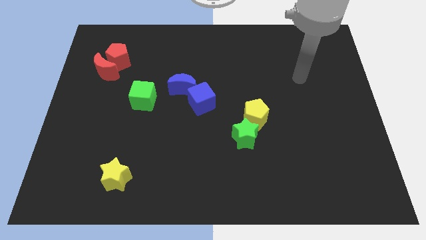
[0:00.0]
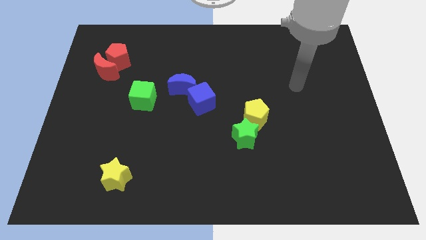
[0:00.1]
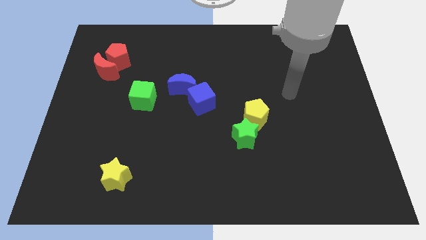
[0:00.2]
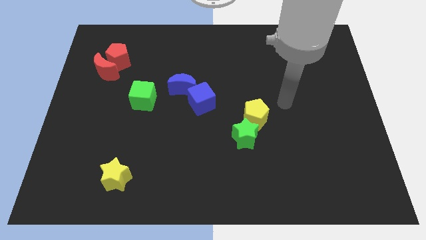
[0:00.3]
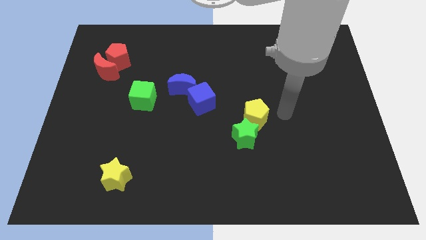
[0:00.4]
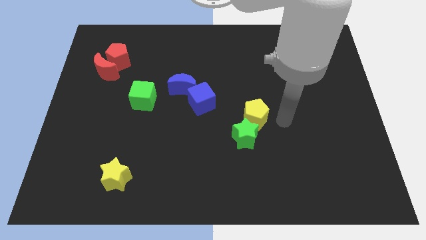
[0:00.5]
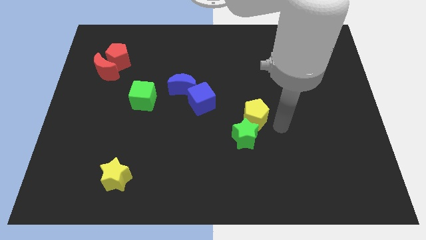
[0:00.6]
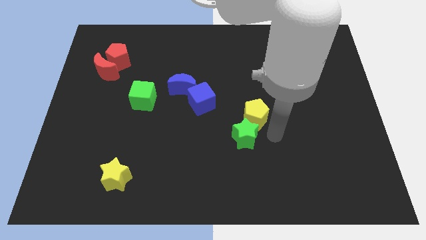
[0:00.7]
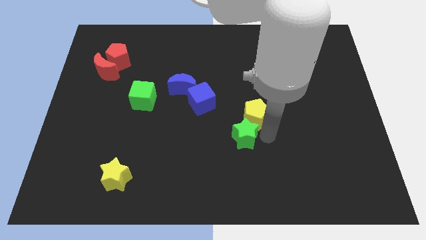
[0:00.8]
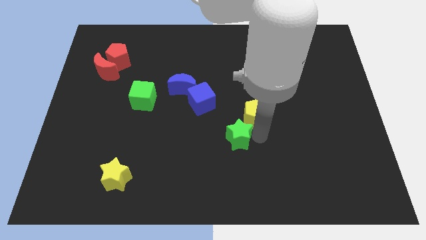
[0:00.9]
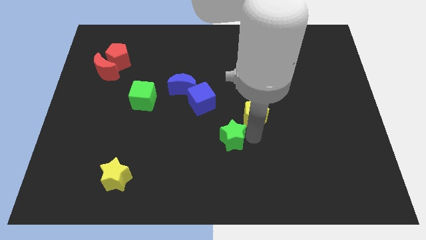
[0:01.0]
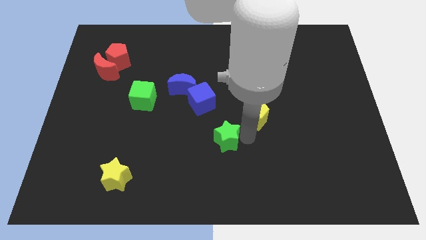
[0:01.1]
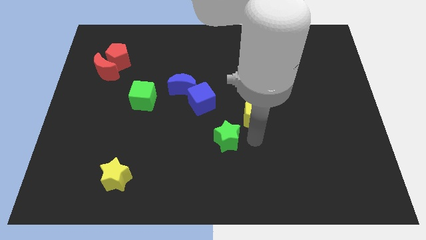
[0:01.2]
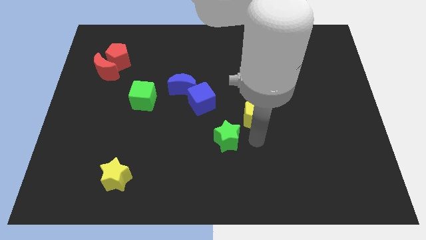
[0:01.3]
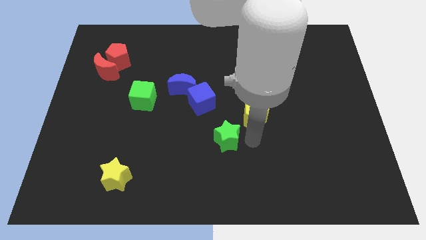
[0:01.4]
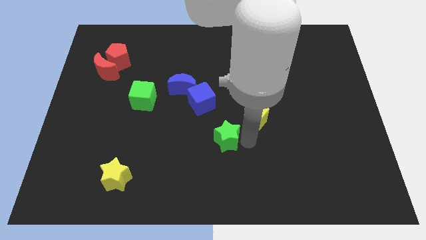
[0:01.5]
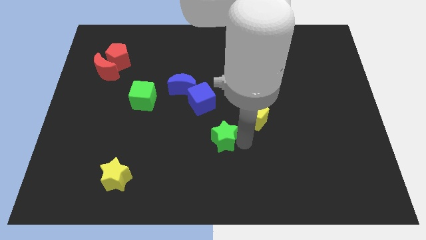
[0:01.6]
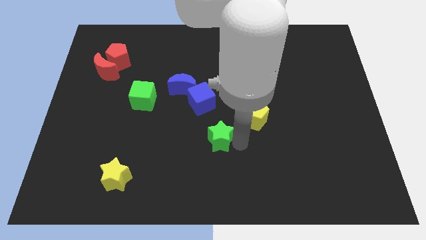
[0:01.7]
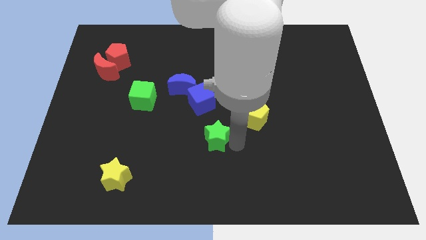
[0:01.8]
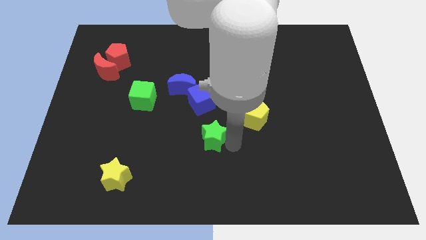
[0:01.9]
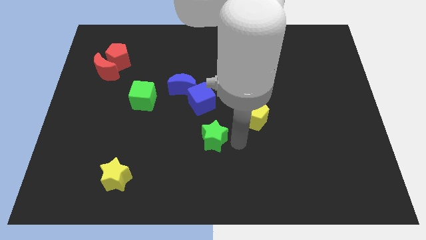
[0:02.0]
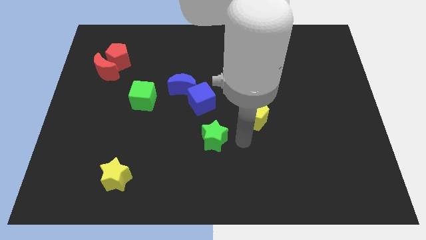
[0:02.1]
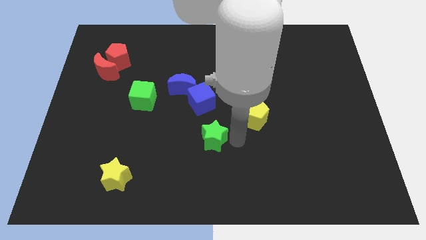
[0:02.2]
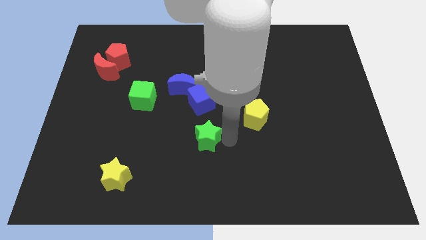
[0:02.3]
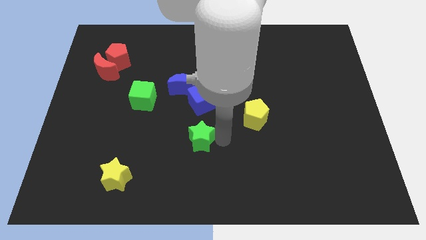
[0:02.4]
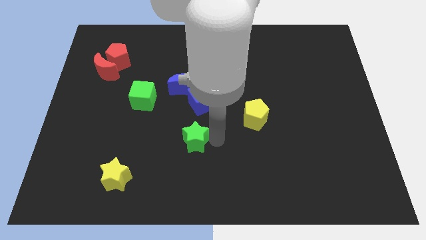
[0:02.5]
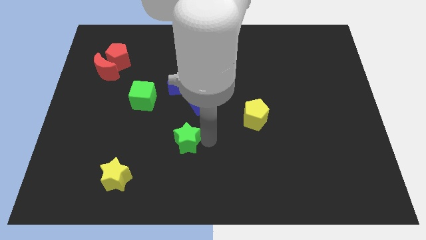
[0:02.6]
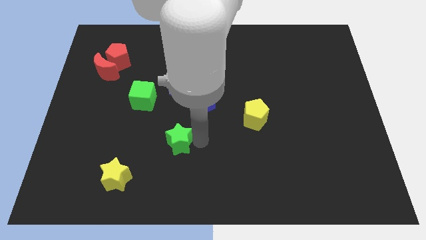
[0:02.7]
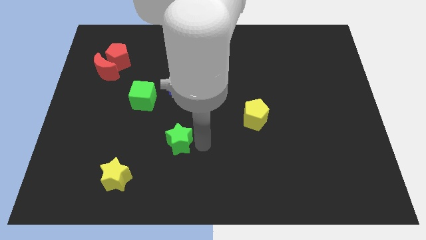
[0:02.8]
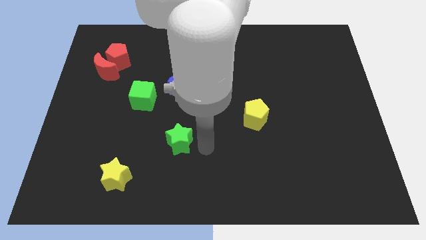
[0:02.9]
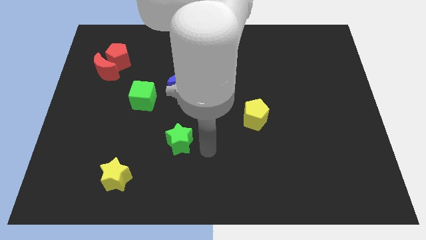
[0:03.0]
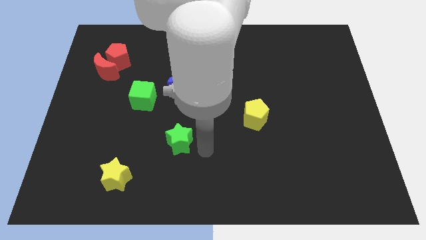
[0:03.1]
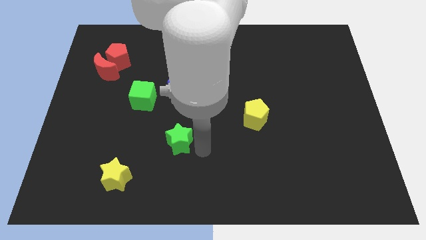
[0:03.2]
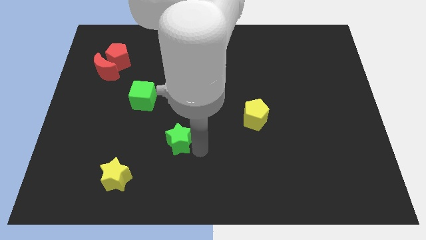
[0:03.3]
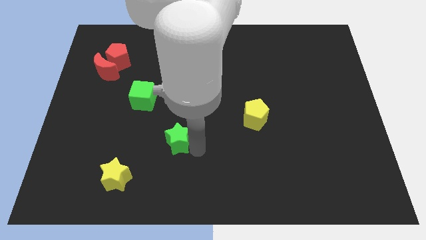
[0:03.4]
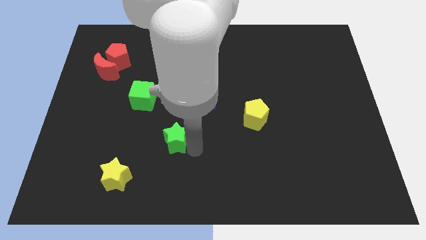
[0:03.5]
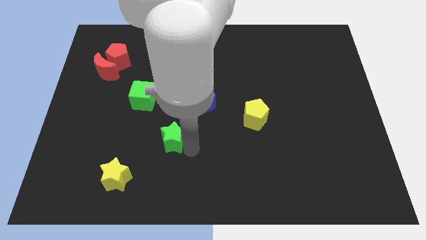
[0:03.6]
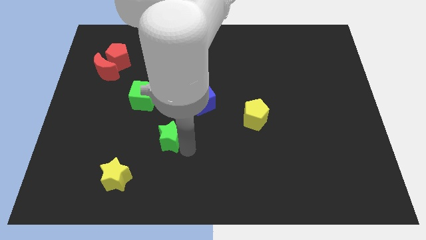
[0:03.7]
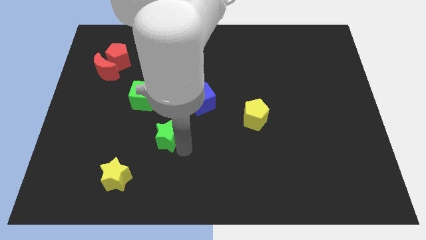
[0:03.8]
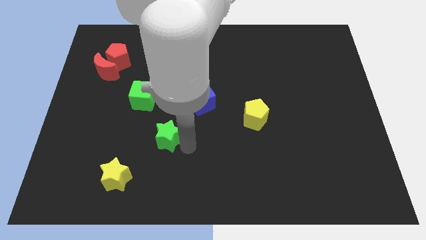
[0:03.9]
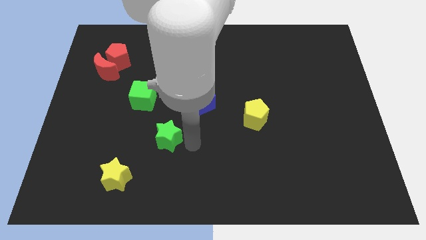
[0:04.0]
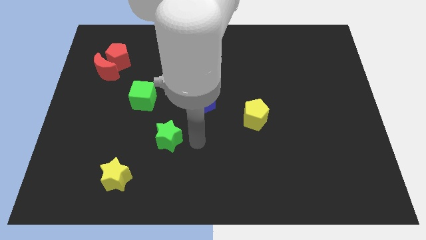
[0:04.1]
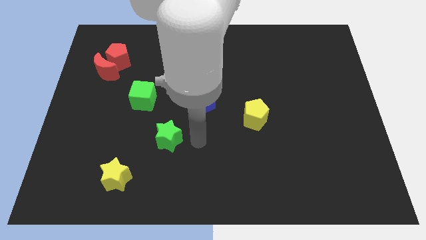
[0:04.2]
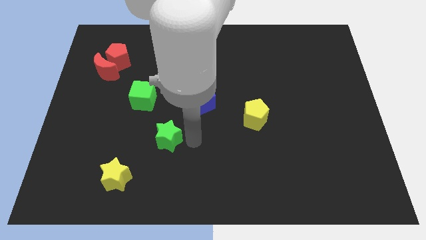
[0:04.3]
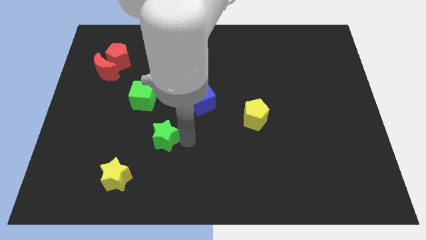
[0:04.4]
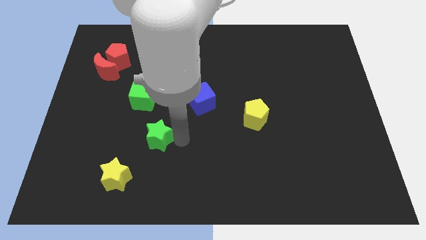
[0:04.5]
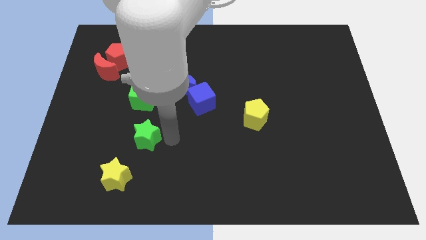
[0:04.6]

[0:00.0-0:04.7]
slide the green star to the top of the yellow star

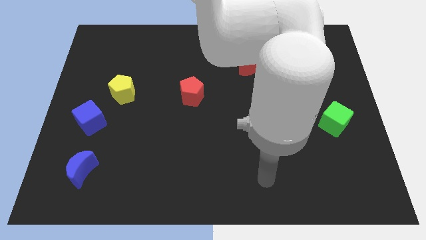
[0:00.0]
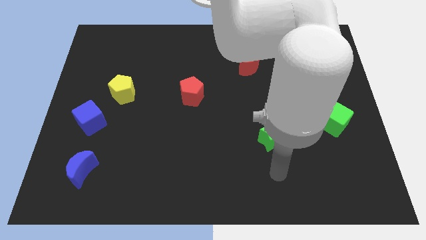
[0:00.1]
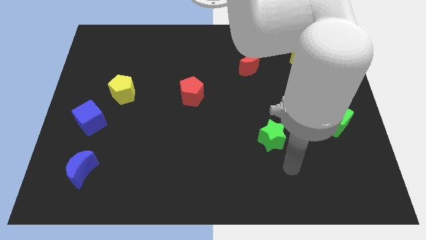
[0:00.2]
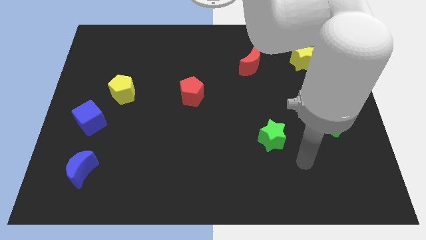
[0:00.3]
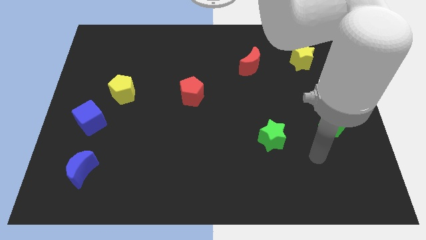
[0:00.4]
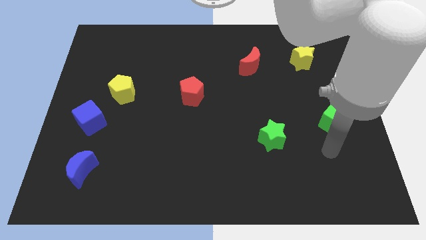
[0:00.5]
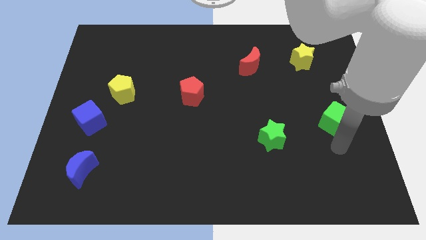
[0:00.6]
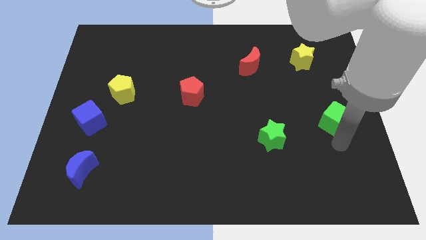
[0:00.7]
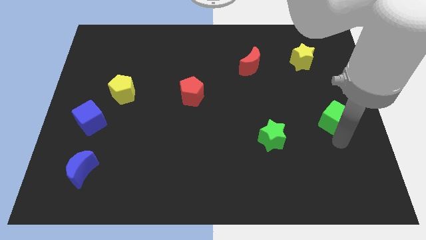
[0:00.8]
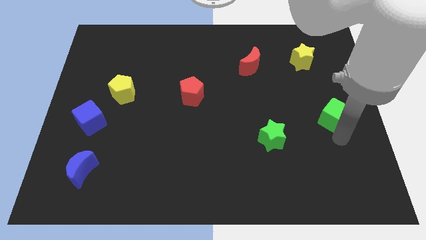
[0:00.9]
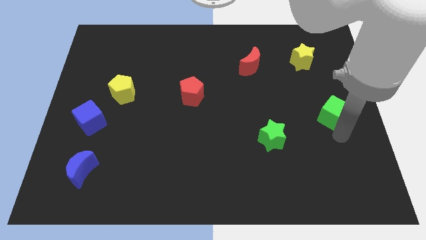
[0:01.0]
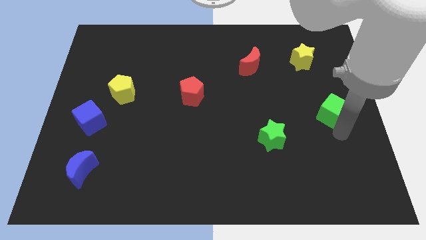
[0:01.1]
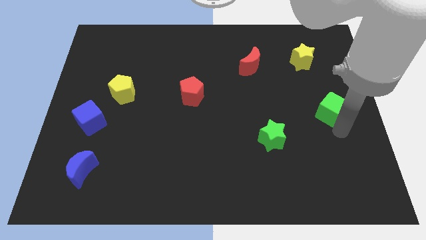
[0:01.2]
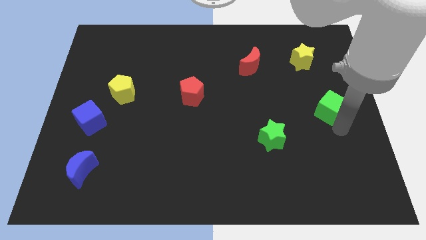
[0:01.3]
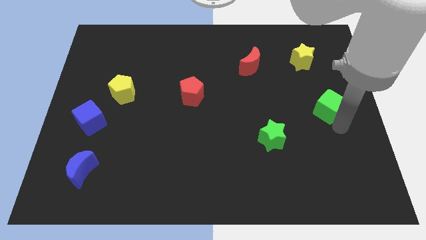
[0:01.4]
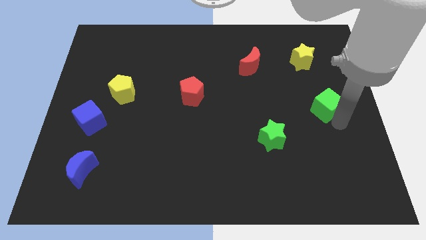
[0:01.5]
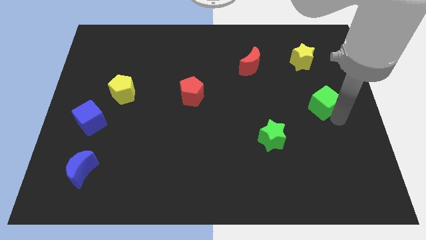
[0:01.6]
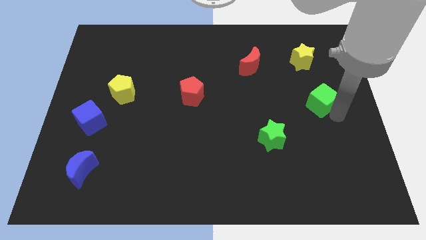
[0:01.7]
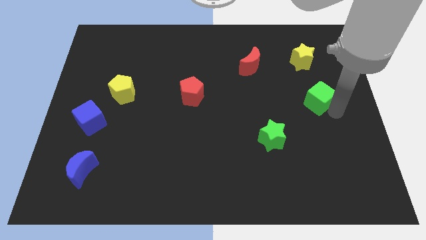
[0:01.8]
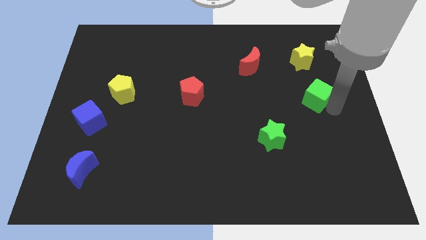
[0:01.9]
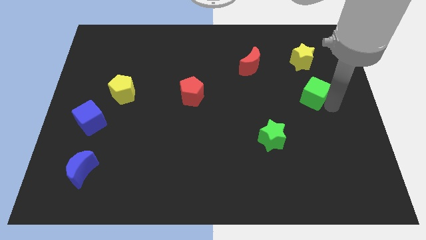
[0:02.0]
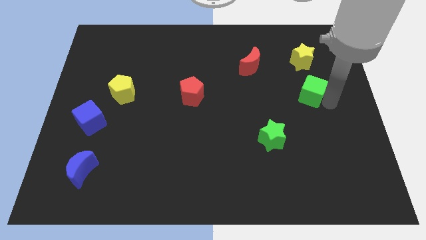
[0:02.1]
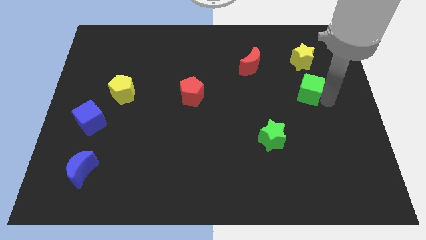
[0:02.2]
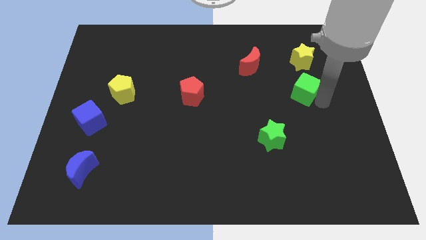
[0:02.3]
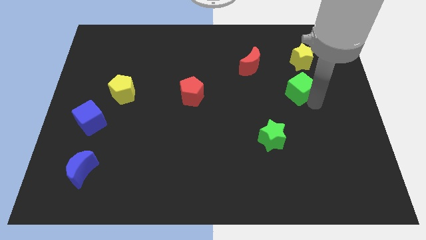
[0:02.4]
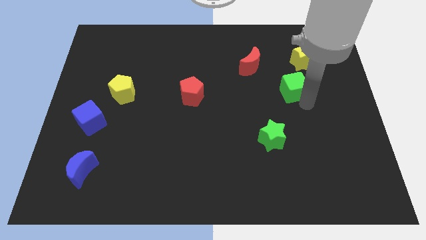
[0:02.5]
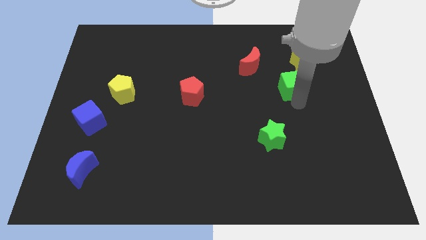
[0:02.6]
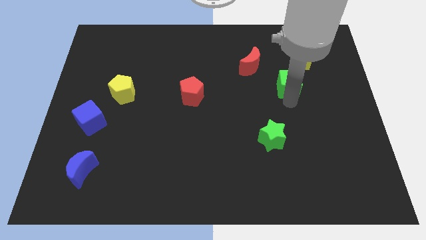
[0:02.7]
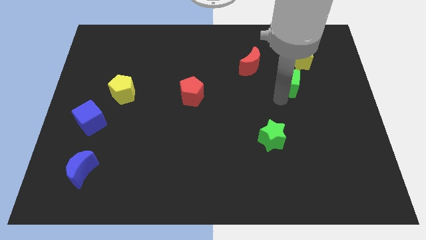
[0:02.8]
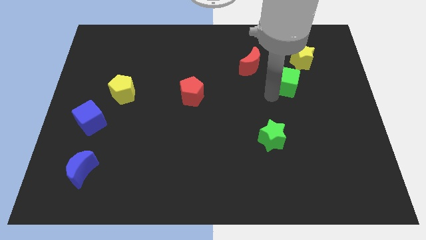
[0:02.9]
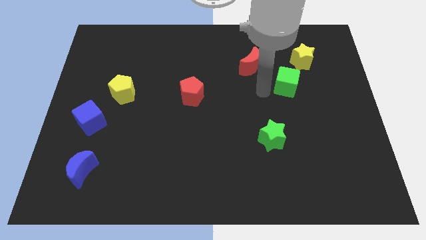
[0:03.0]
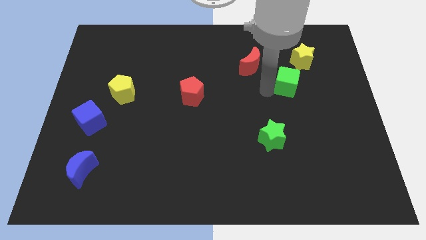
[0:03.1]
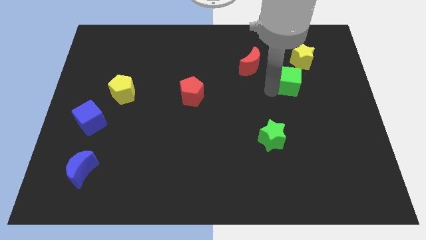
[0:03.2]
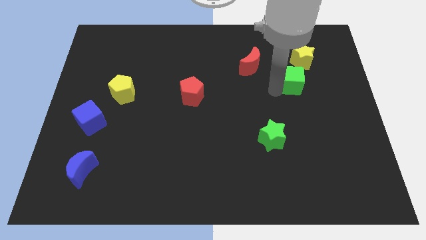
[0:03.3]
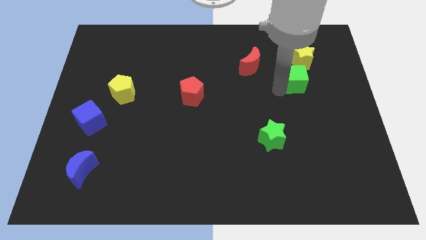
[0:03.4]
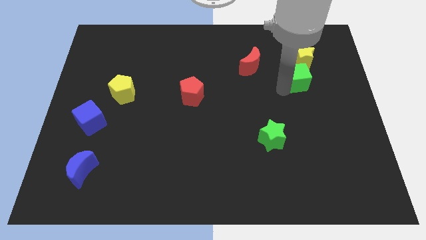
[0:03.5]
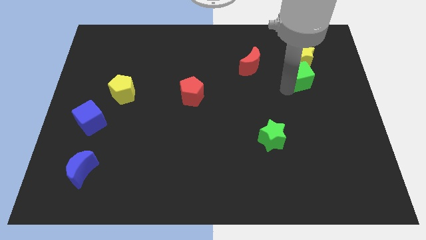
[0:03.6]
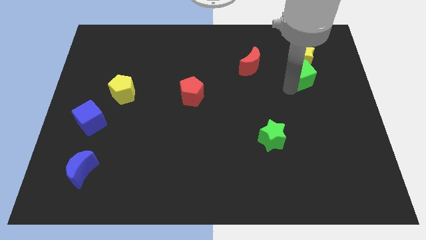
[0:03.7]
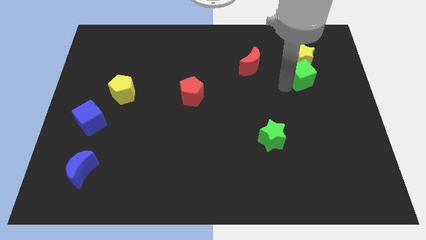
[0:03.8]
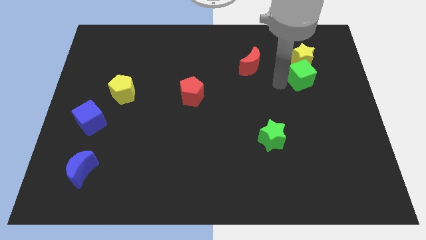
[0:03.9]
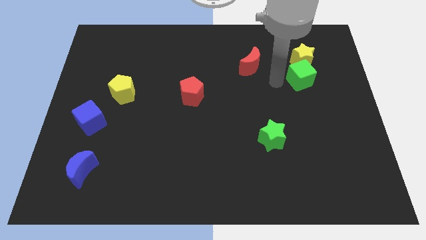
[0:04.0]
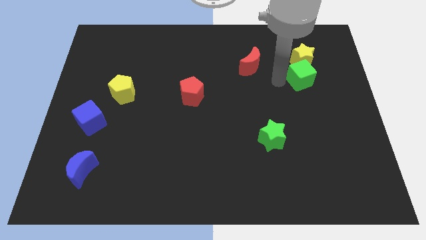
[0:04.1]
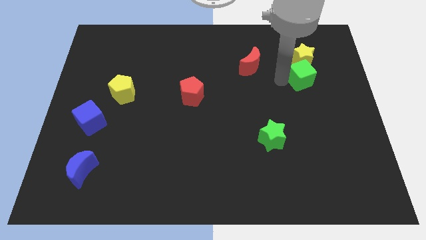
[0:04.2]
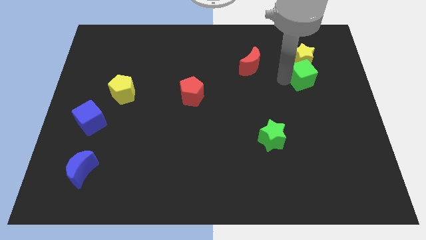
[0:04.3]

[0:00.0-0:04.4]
put the green cube to the bottom right of the yellow star
